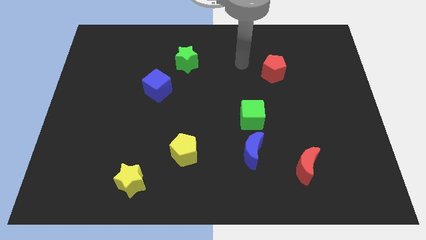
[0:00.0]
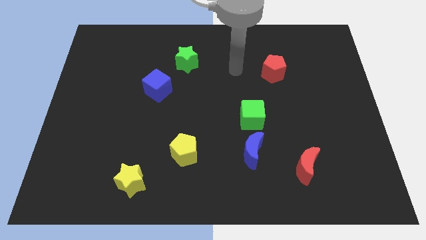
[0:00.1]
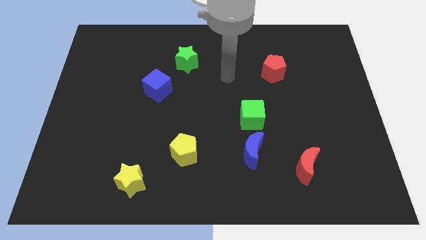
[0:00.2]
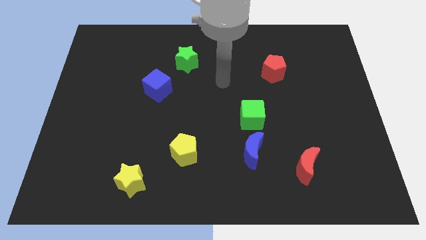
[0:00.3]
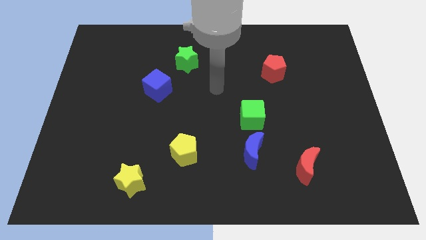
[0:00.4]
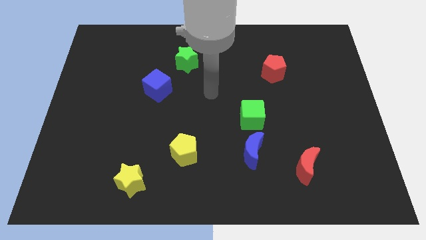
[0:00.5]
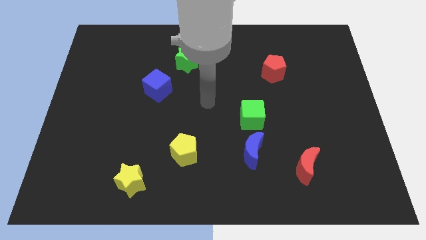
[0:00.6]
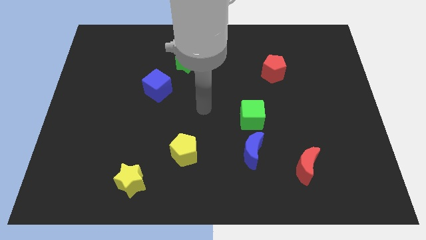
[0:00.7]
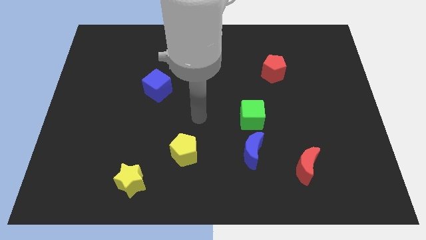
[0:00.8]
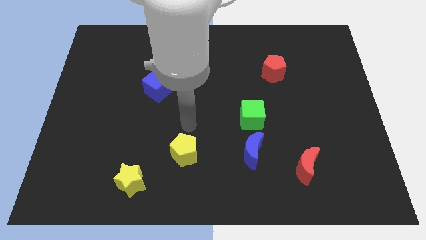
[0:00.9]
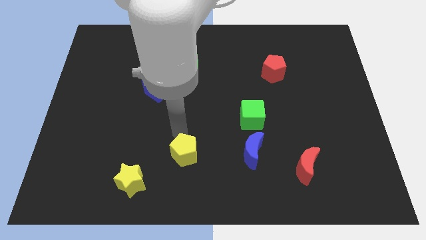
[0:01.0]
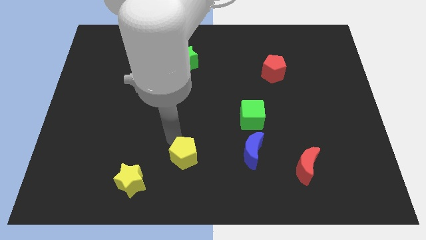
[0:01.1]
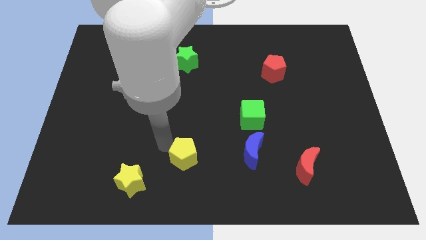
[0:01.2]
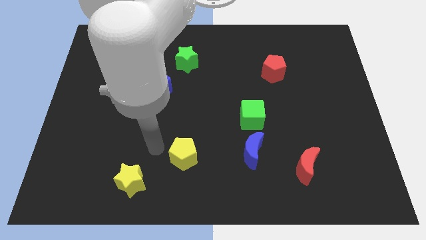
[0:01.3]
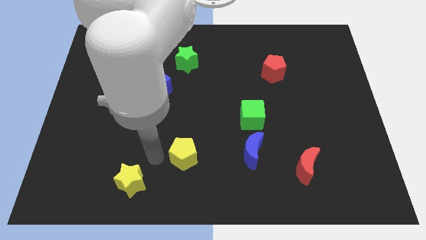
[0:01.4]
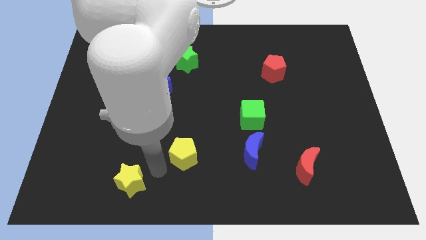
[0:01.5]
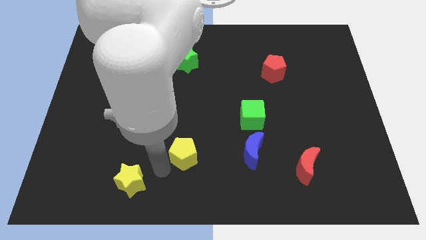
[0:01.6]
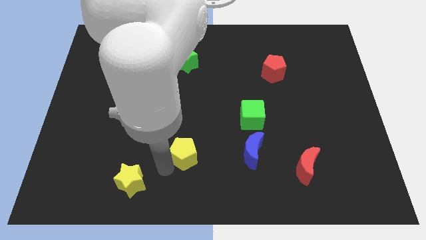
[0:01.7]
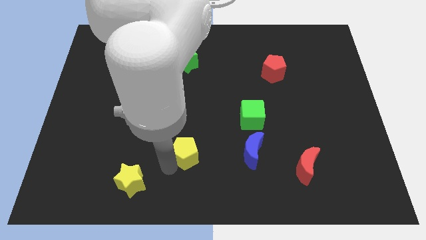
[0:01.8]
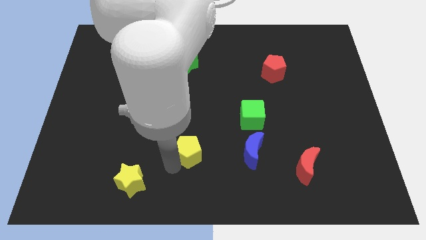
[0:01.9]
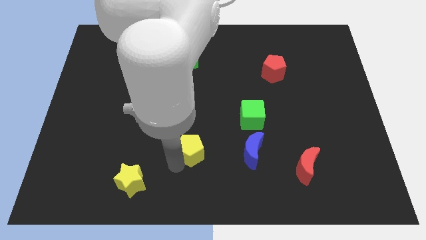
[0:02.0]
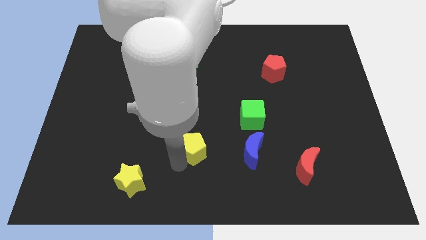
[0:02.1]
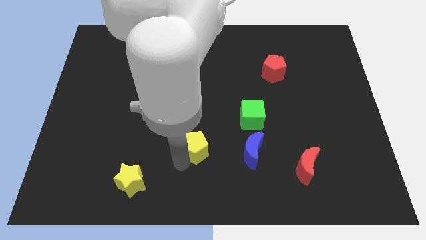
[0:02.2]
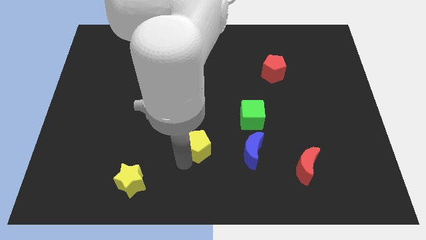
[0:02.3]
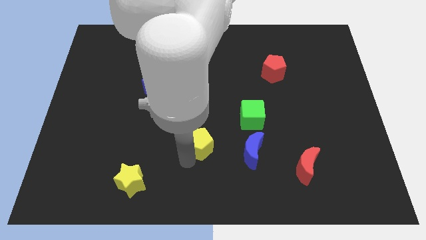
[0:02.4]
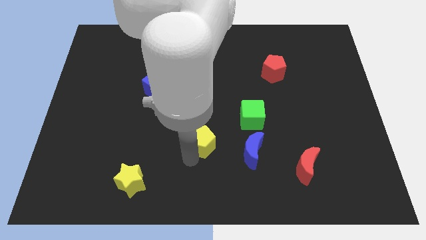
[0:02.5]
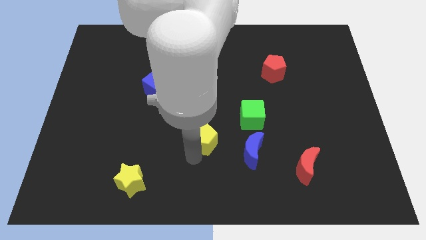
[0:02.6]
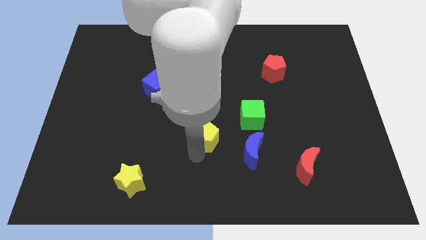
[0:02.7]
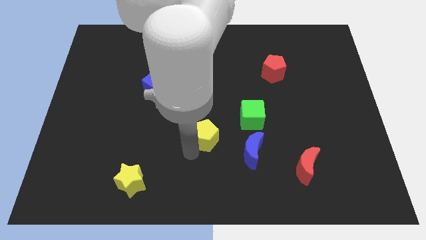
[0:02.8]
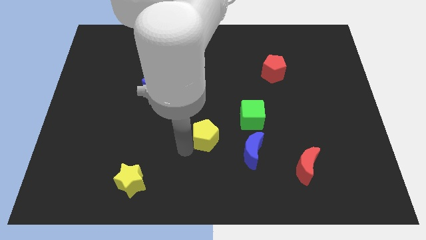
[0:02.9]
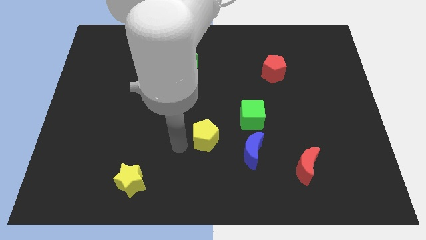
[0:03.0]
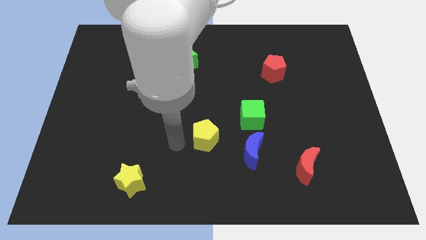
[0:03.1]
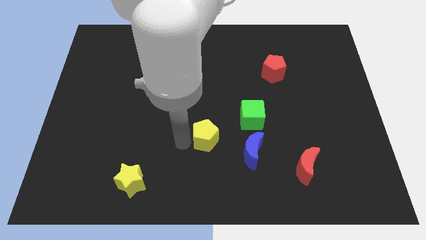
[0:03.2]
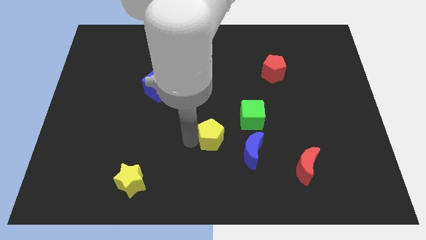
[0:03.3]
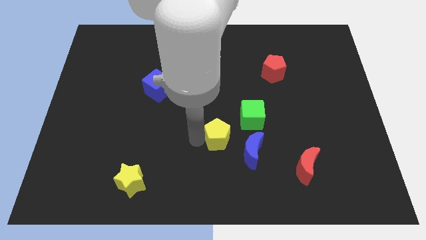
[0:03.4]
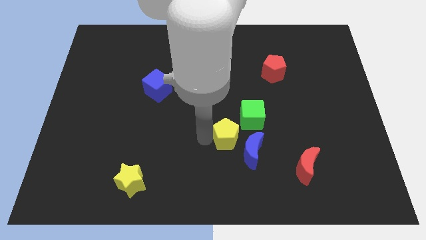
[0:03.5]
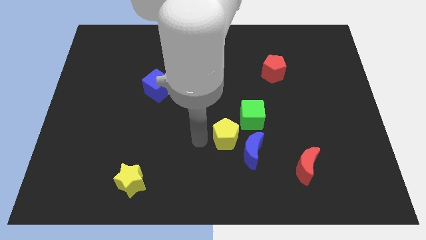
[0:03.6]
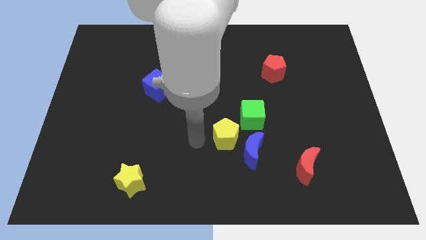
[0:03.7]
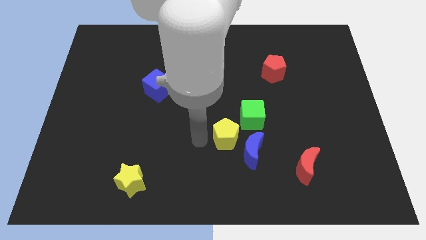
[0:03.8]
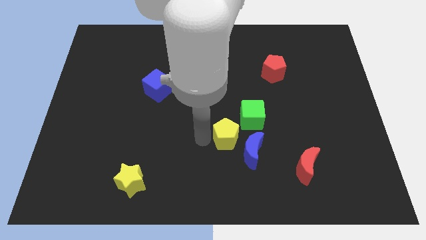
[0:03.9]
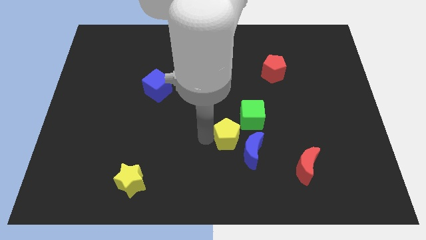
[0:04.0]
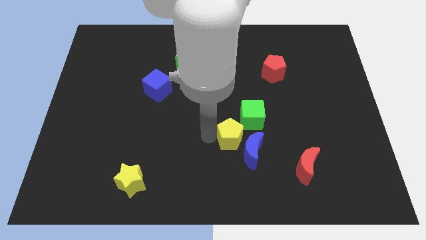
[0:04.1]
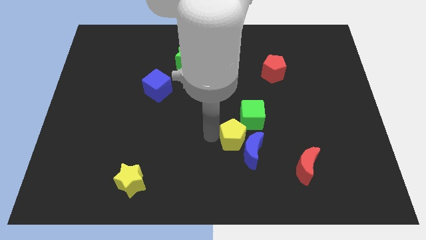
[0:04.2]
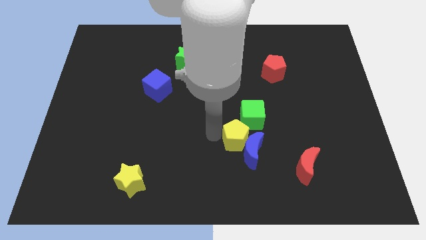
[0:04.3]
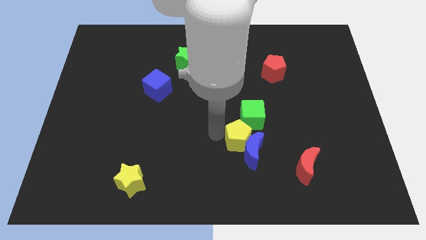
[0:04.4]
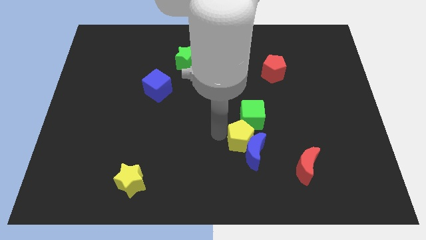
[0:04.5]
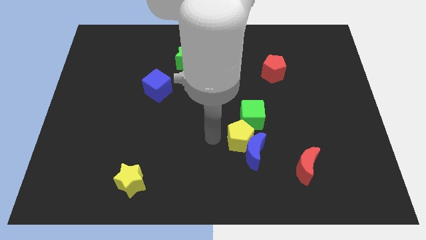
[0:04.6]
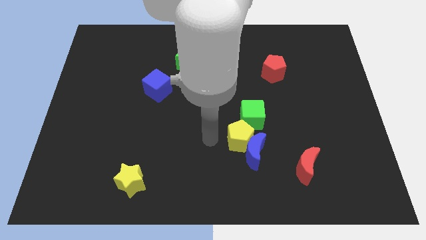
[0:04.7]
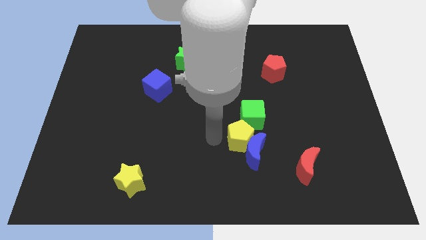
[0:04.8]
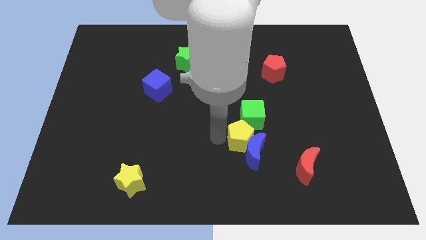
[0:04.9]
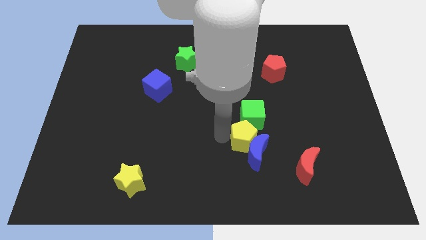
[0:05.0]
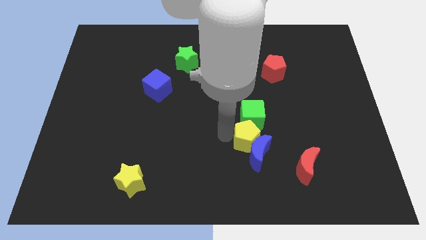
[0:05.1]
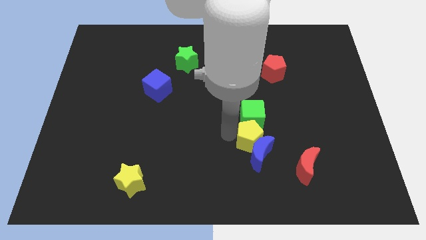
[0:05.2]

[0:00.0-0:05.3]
push the yellow pentagon to the bottom right of the green cube

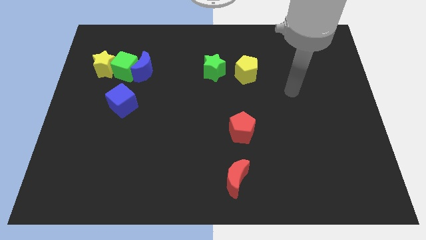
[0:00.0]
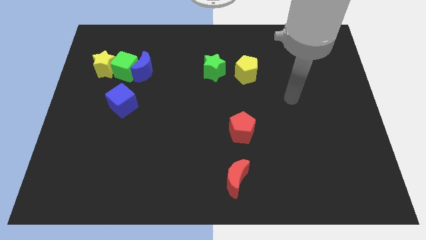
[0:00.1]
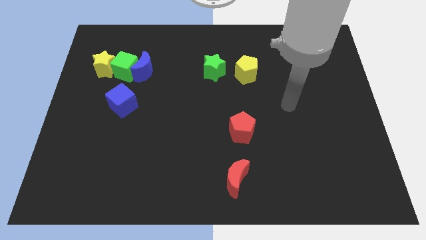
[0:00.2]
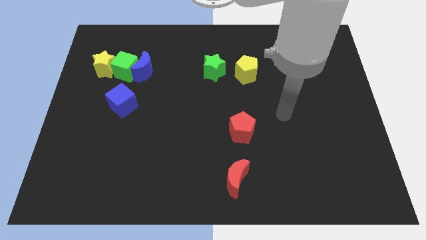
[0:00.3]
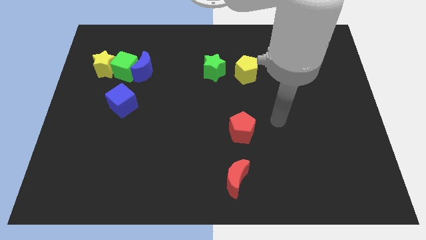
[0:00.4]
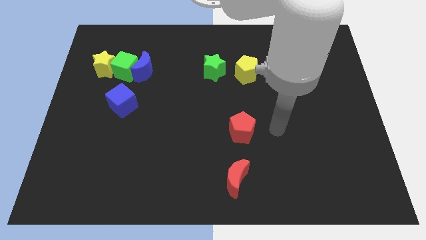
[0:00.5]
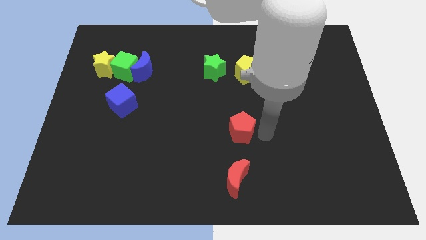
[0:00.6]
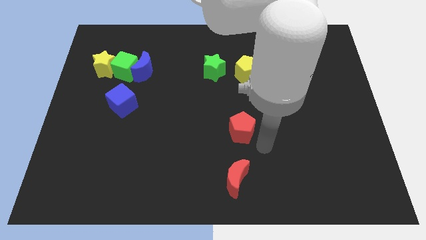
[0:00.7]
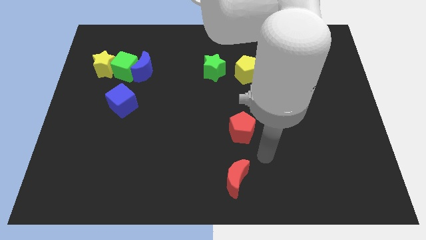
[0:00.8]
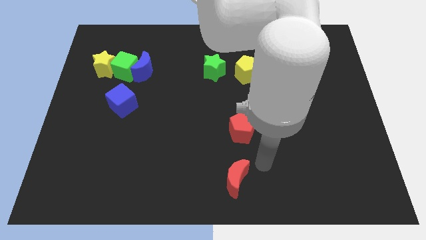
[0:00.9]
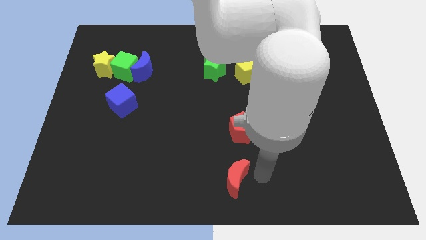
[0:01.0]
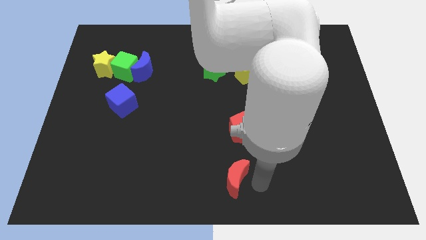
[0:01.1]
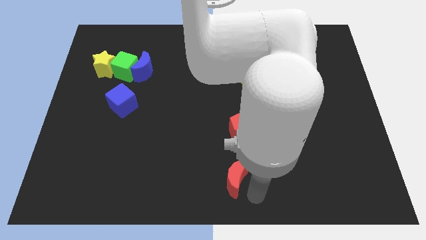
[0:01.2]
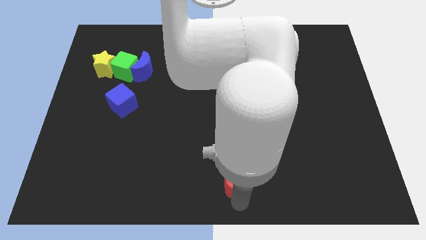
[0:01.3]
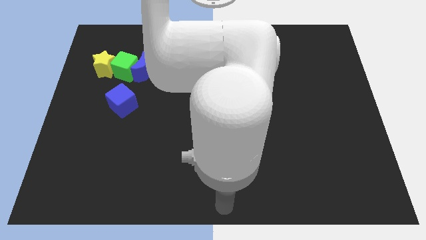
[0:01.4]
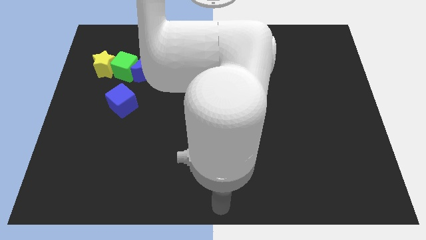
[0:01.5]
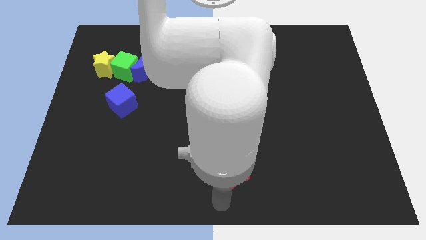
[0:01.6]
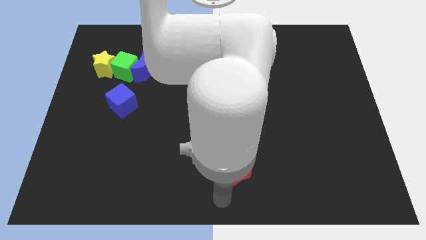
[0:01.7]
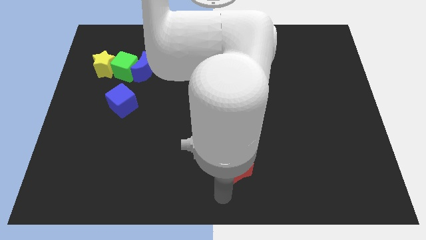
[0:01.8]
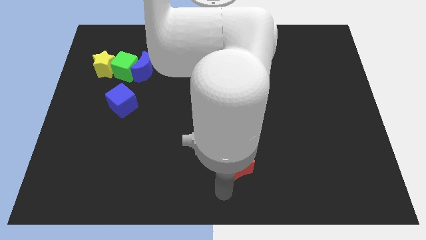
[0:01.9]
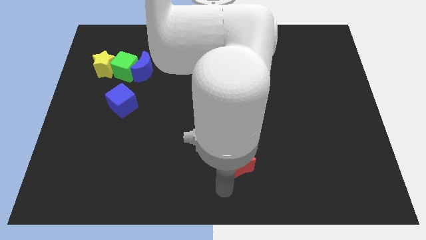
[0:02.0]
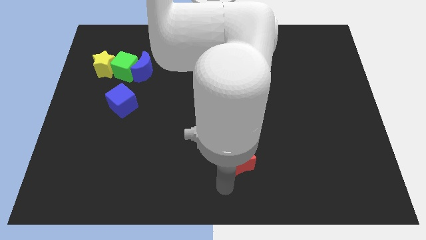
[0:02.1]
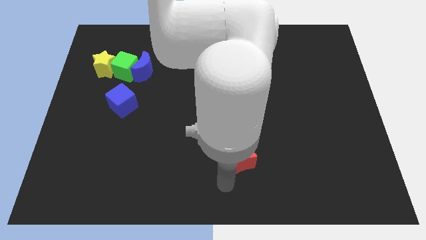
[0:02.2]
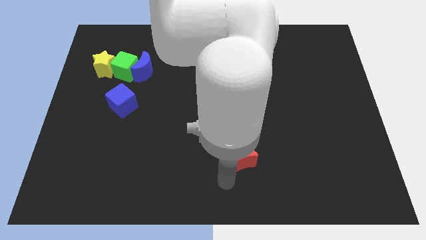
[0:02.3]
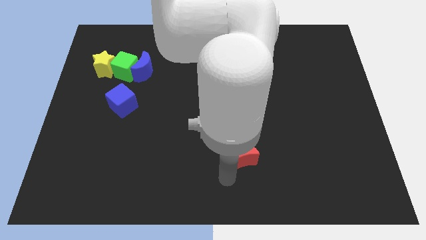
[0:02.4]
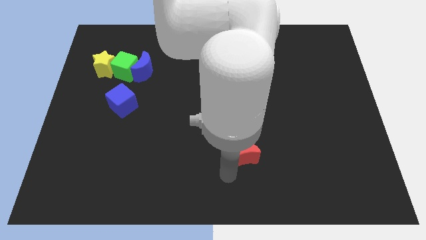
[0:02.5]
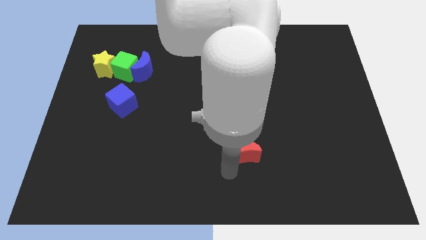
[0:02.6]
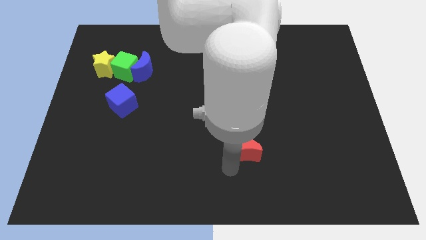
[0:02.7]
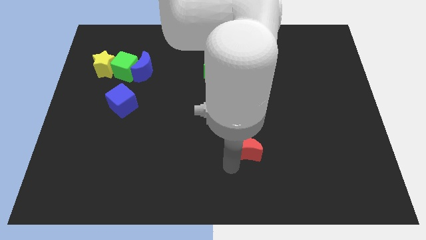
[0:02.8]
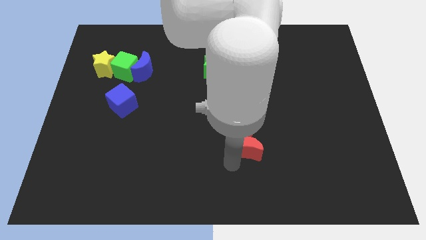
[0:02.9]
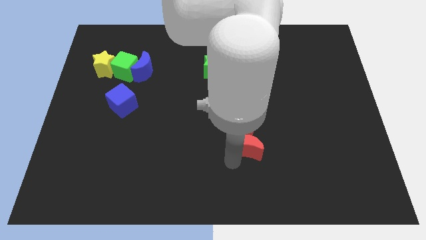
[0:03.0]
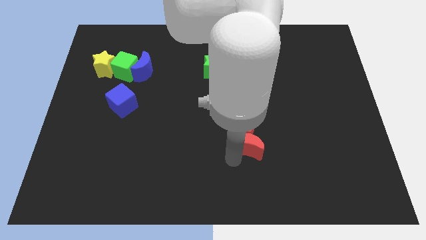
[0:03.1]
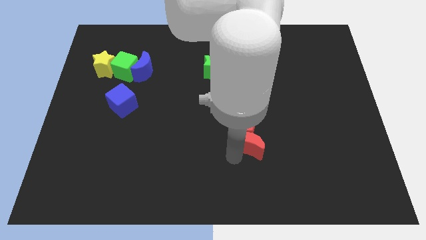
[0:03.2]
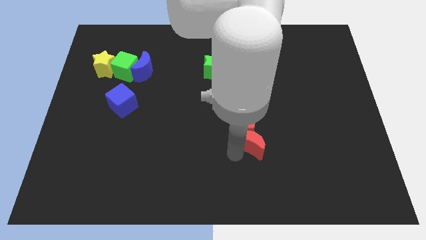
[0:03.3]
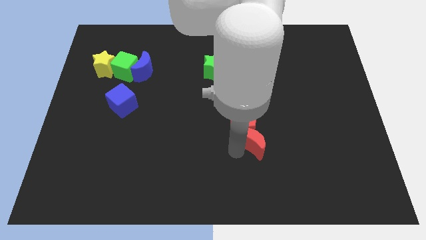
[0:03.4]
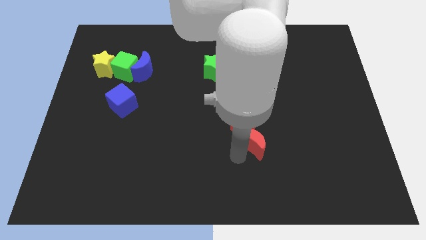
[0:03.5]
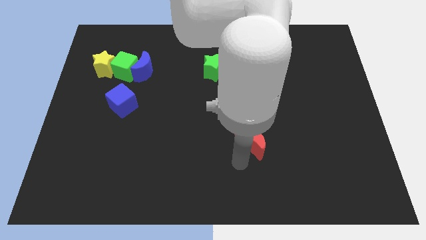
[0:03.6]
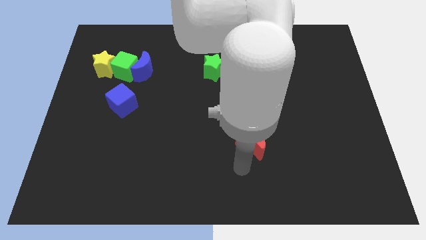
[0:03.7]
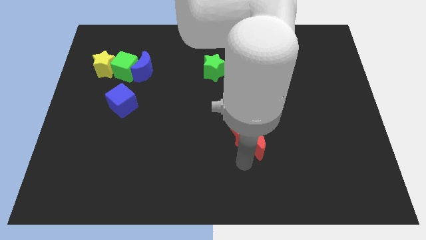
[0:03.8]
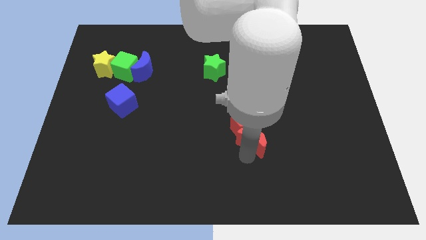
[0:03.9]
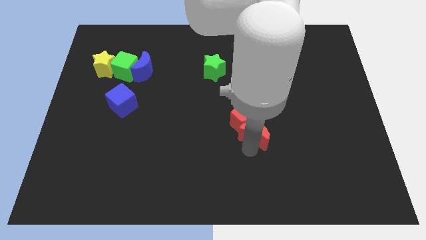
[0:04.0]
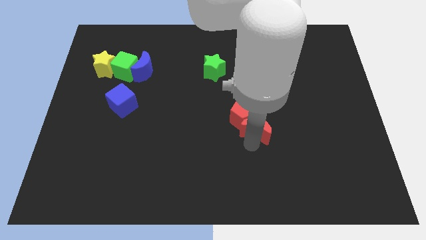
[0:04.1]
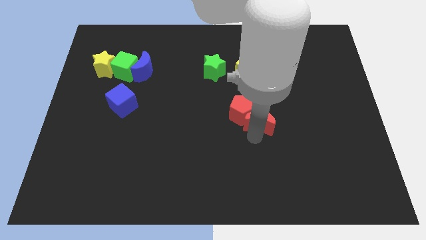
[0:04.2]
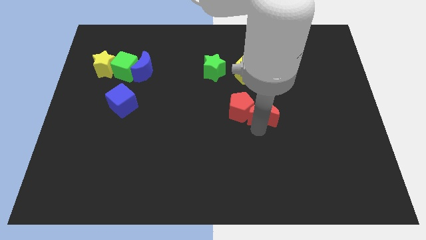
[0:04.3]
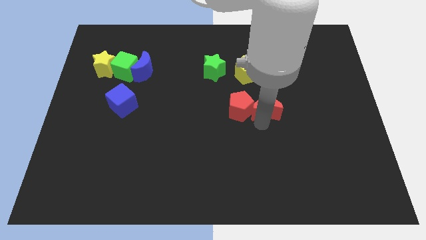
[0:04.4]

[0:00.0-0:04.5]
put the red moon to the top right side of the red pentagon
